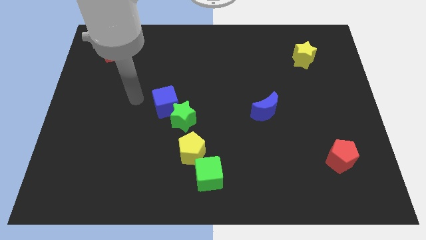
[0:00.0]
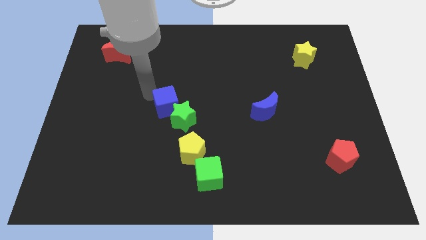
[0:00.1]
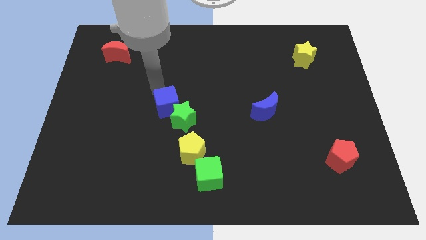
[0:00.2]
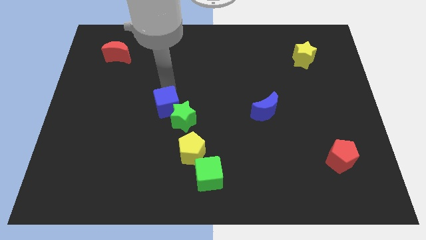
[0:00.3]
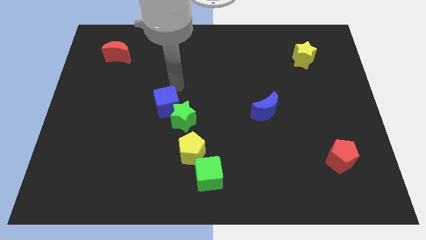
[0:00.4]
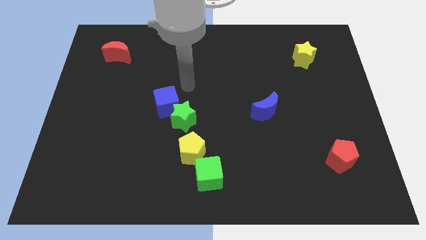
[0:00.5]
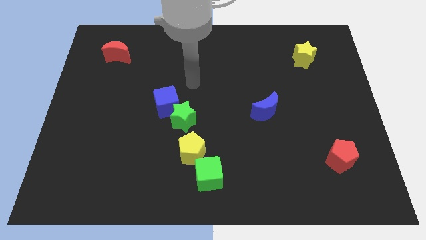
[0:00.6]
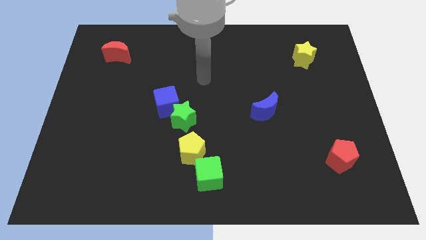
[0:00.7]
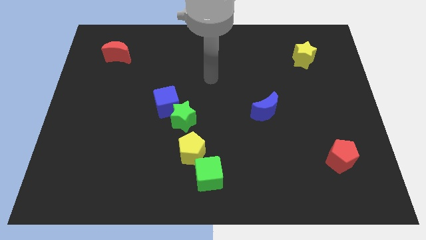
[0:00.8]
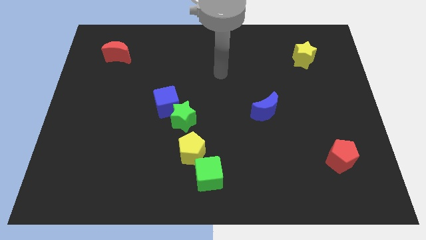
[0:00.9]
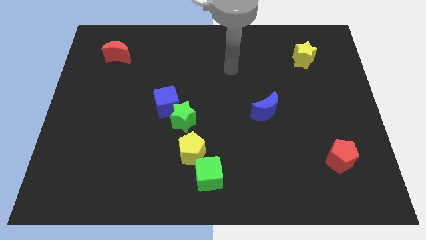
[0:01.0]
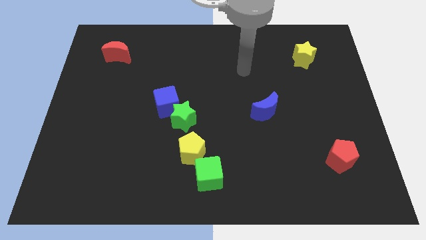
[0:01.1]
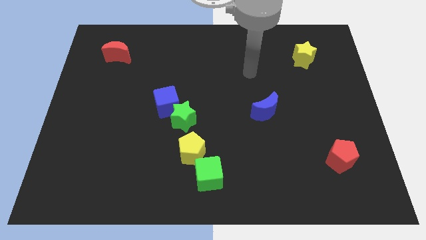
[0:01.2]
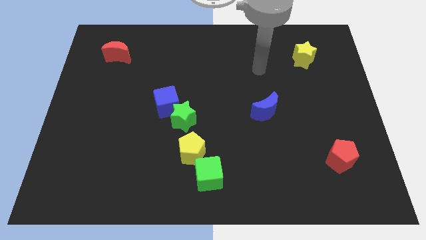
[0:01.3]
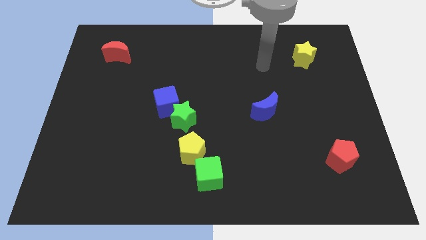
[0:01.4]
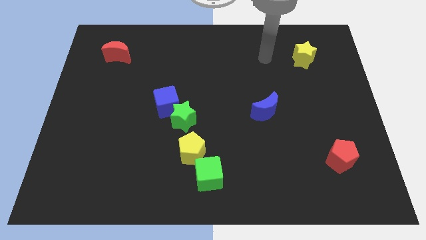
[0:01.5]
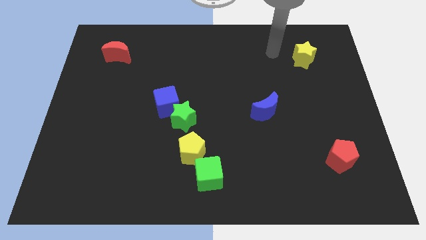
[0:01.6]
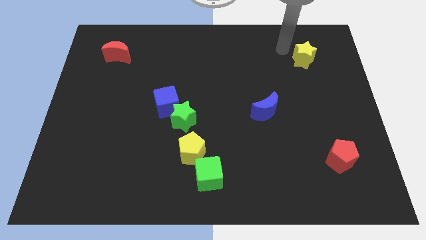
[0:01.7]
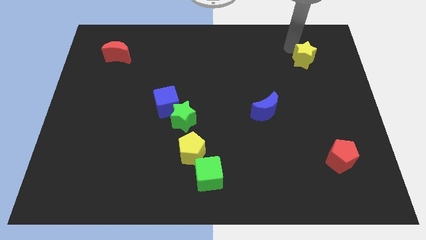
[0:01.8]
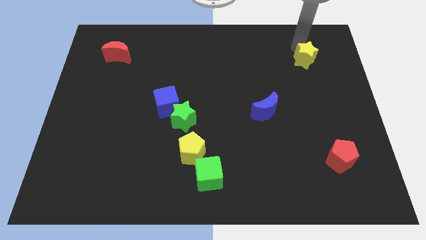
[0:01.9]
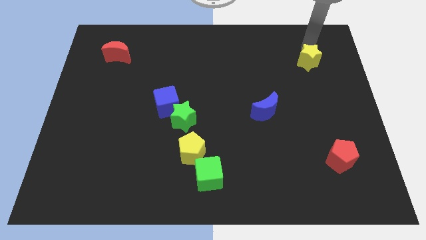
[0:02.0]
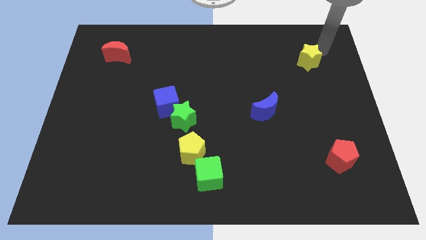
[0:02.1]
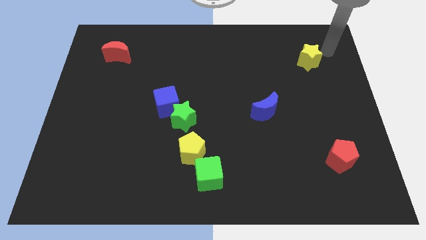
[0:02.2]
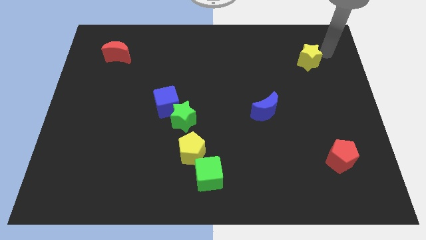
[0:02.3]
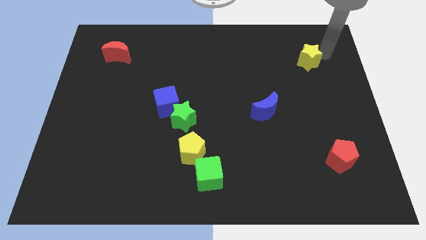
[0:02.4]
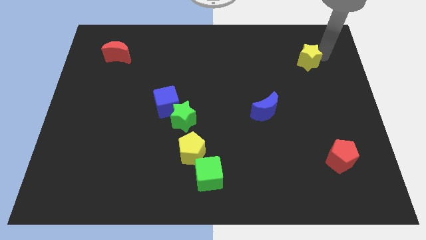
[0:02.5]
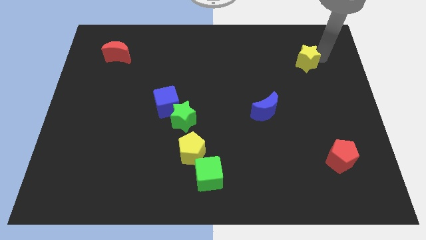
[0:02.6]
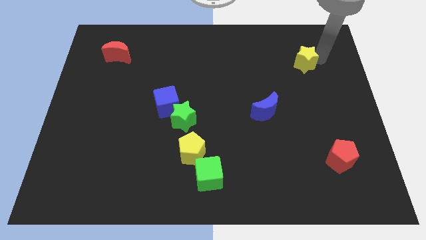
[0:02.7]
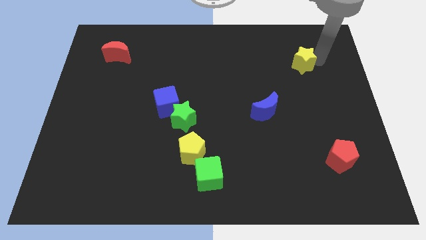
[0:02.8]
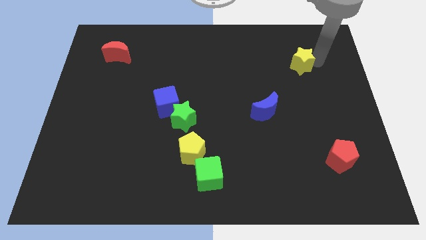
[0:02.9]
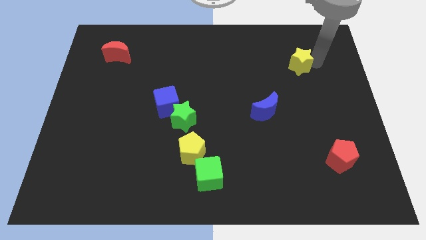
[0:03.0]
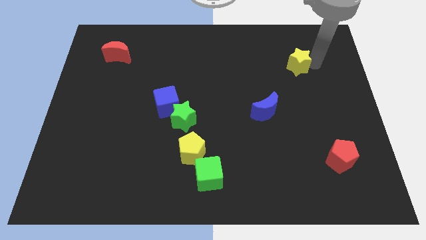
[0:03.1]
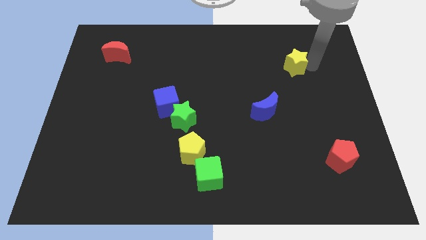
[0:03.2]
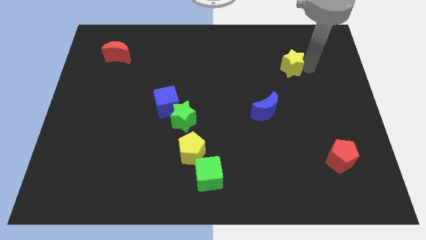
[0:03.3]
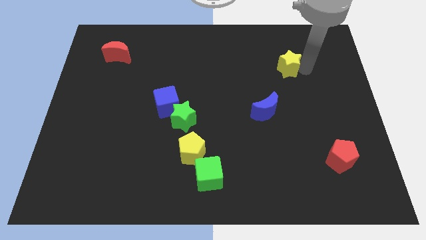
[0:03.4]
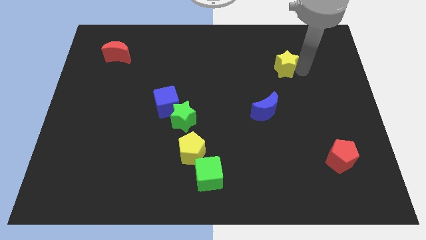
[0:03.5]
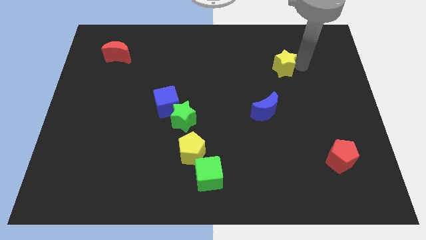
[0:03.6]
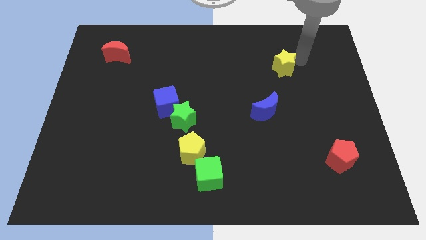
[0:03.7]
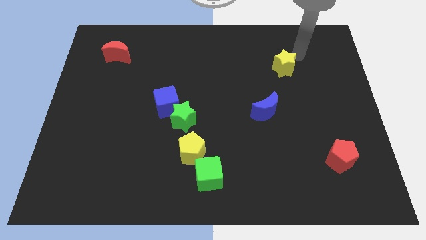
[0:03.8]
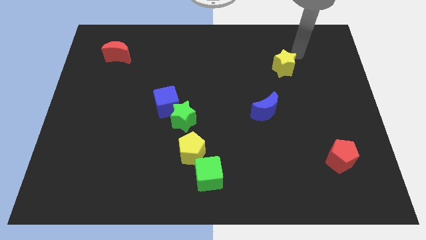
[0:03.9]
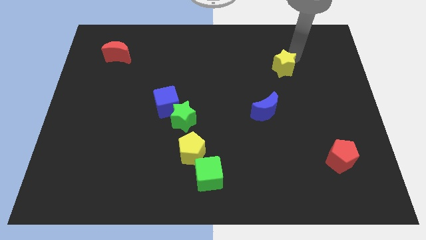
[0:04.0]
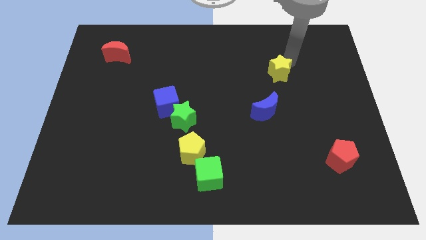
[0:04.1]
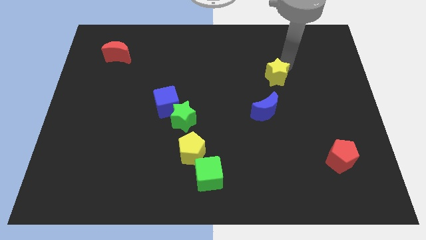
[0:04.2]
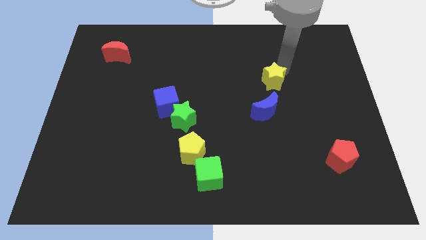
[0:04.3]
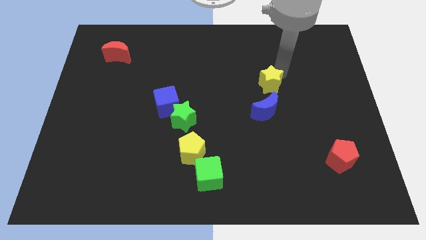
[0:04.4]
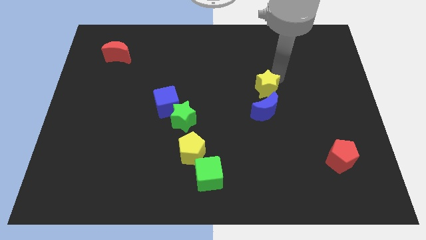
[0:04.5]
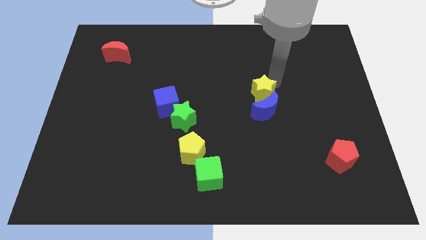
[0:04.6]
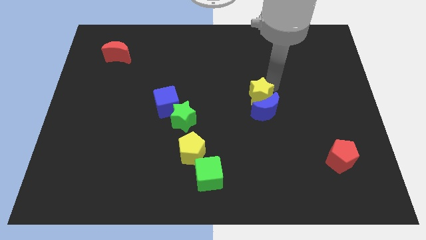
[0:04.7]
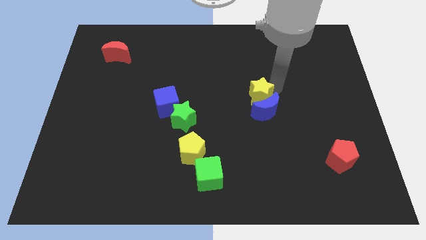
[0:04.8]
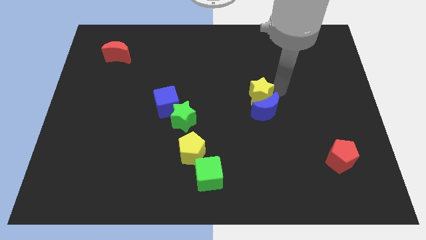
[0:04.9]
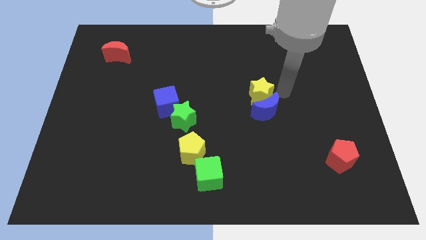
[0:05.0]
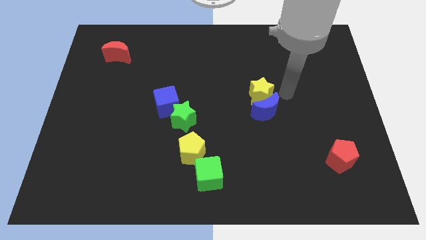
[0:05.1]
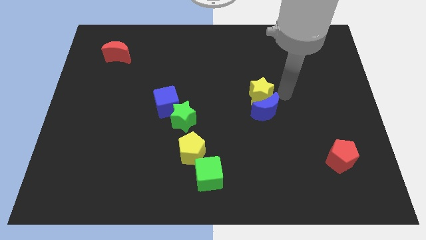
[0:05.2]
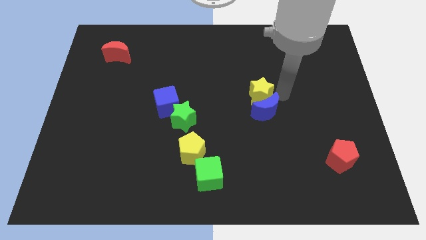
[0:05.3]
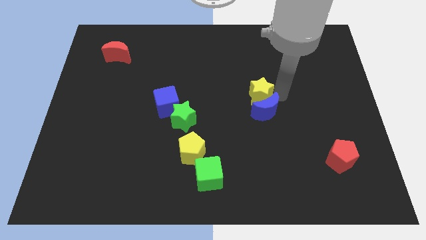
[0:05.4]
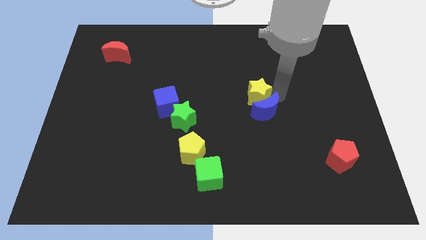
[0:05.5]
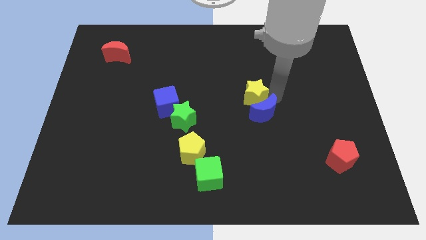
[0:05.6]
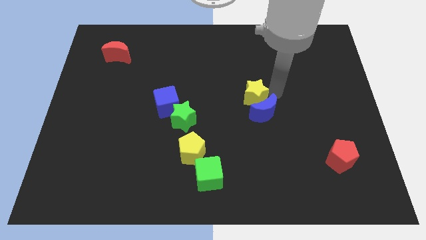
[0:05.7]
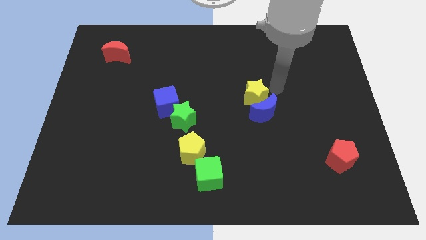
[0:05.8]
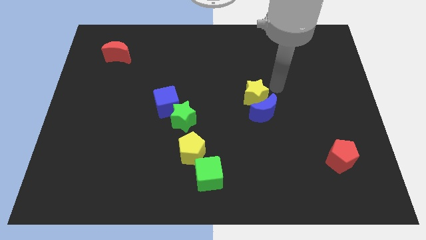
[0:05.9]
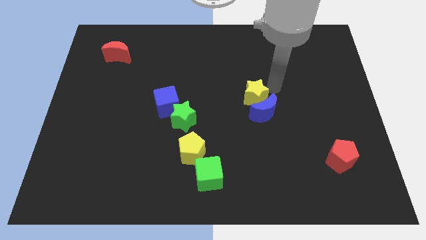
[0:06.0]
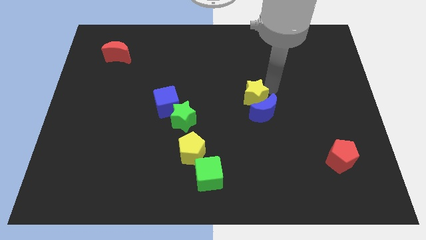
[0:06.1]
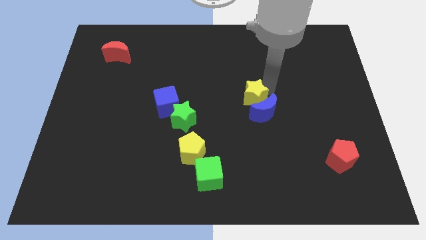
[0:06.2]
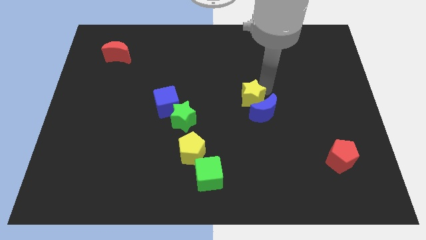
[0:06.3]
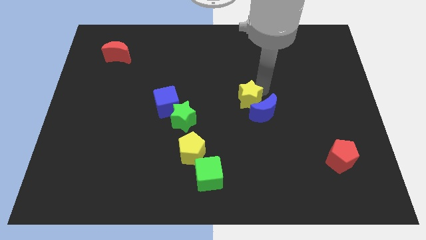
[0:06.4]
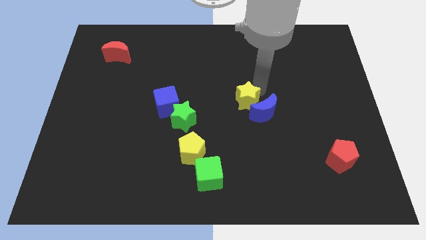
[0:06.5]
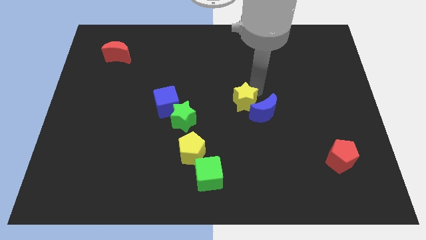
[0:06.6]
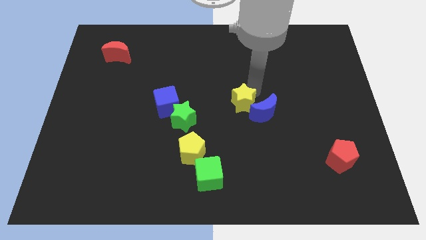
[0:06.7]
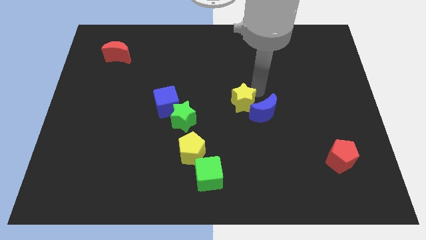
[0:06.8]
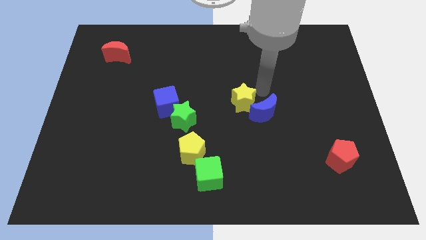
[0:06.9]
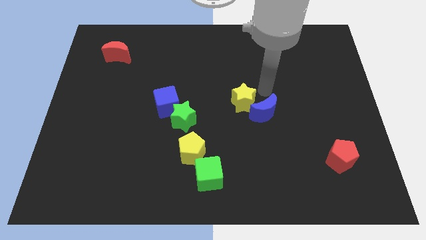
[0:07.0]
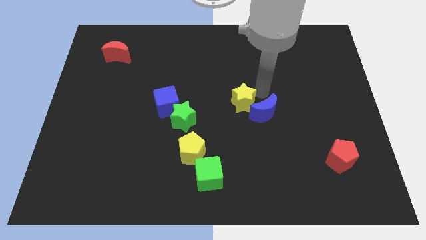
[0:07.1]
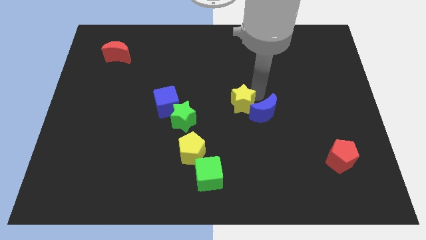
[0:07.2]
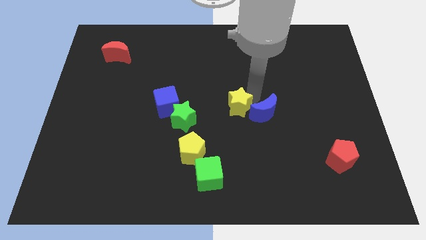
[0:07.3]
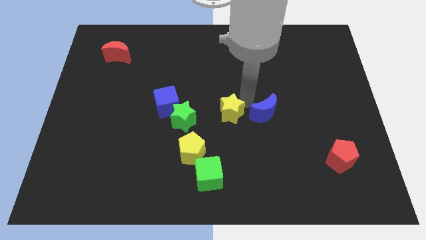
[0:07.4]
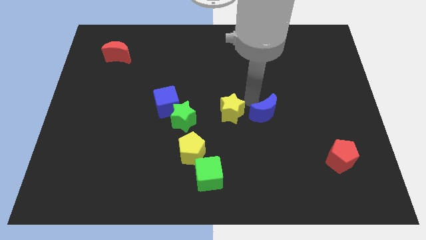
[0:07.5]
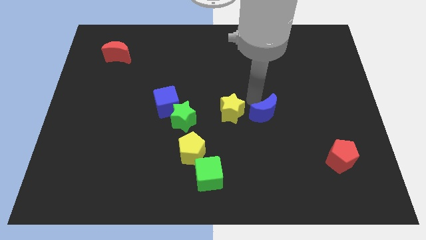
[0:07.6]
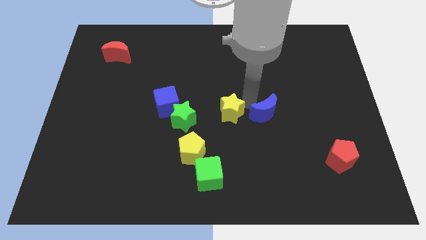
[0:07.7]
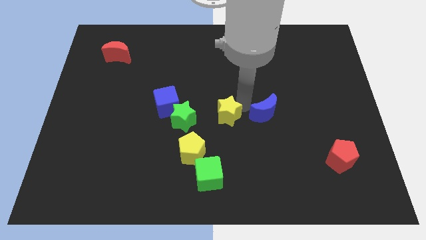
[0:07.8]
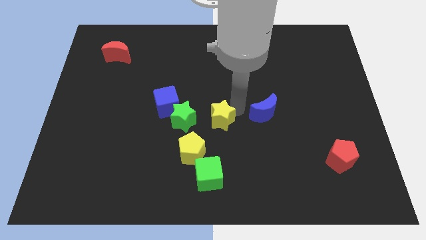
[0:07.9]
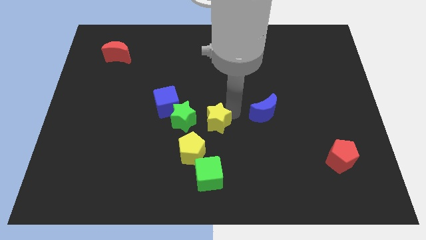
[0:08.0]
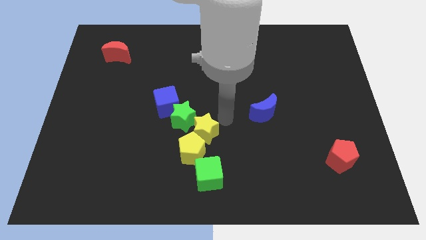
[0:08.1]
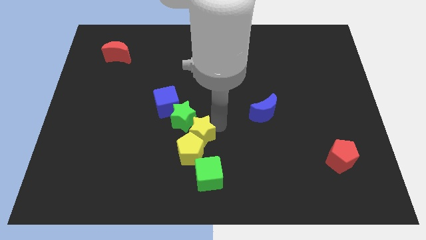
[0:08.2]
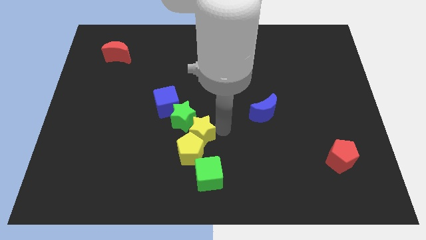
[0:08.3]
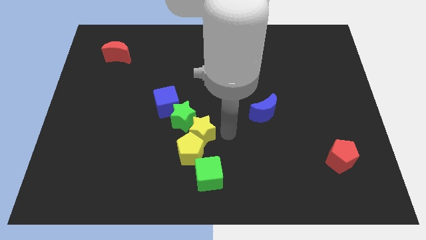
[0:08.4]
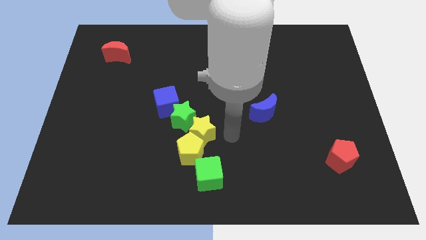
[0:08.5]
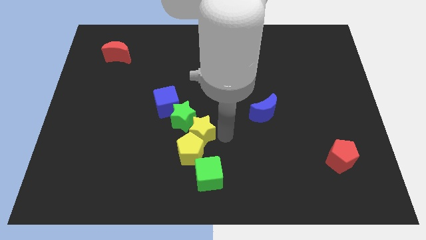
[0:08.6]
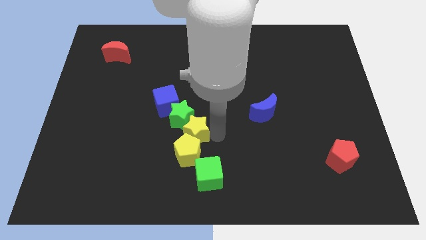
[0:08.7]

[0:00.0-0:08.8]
push the yellow star to the top left of the yellow pentagon
